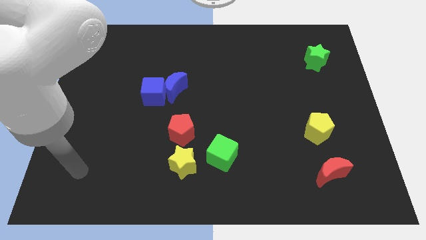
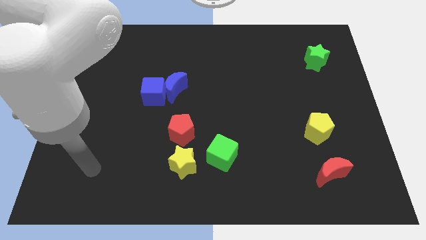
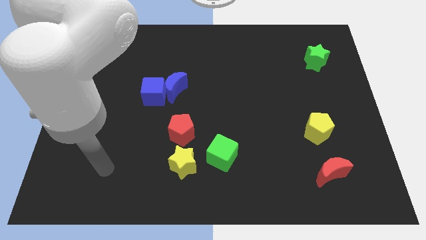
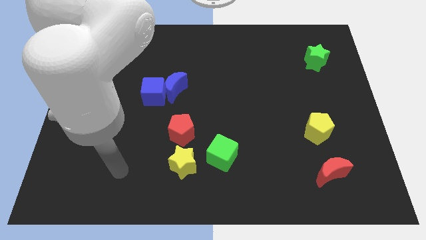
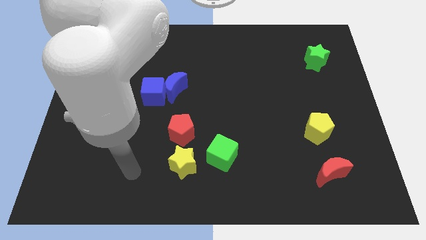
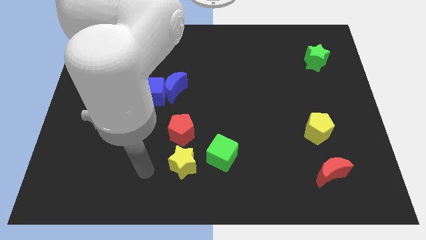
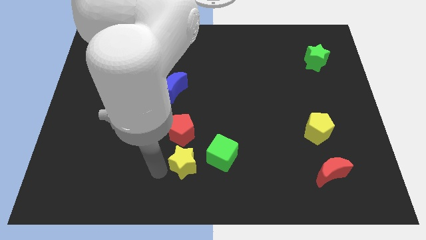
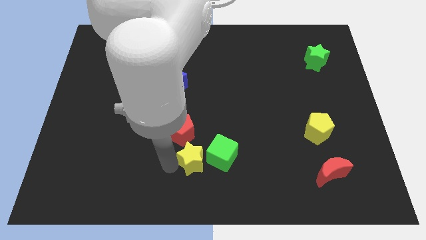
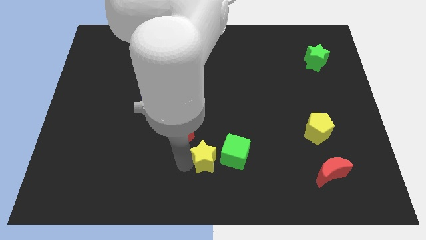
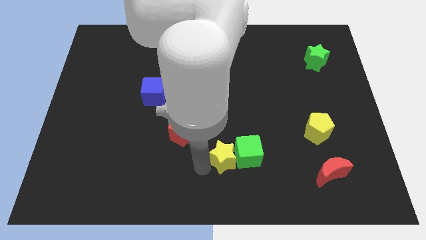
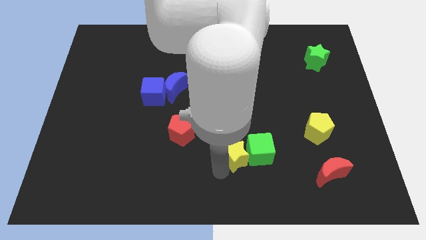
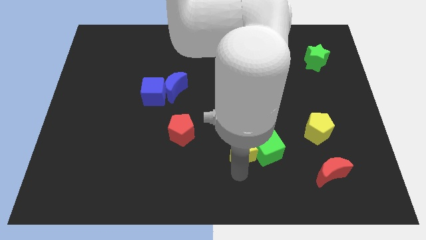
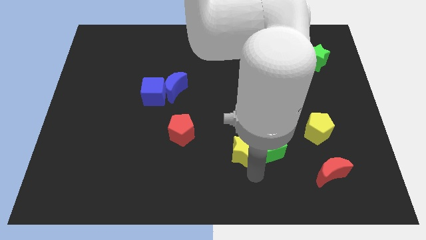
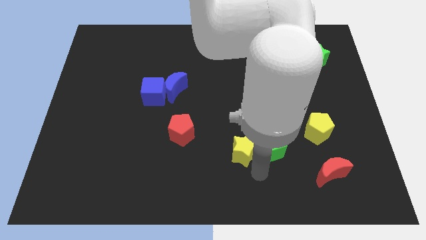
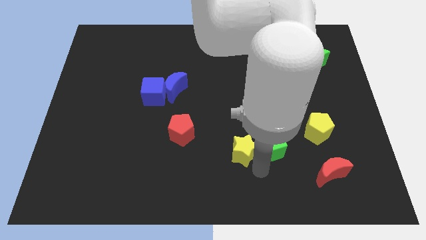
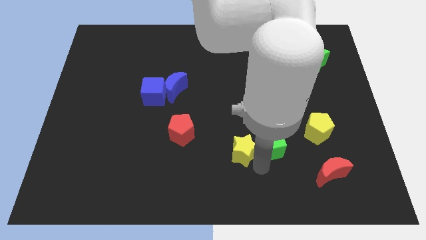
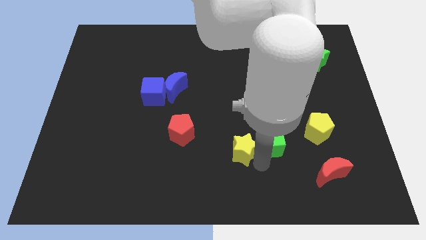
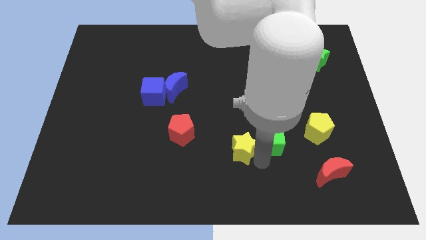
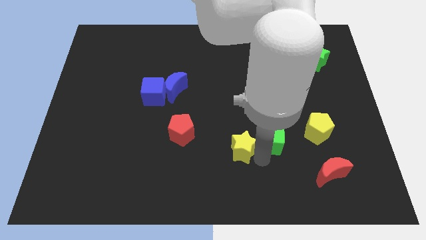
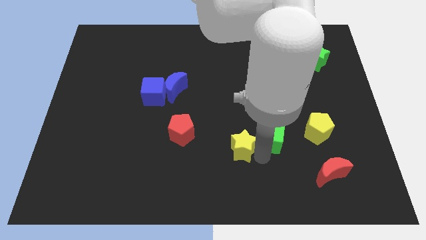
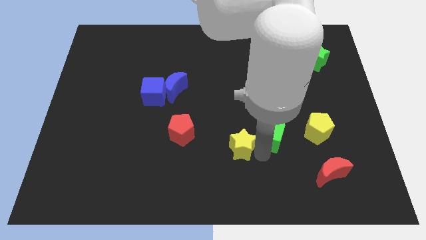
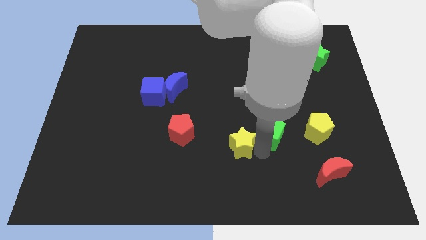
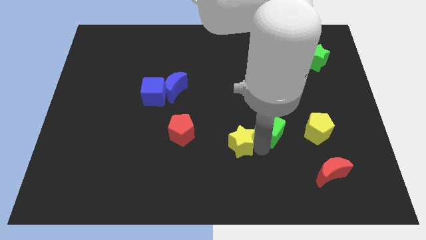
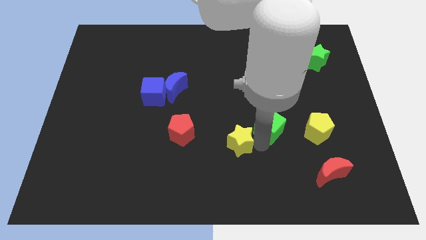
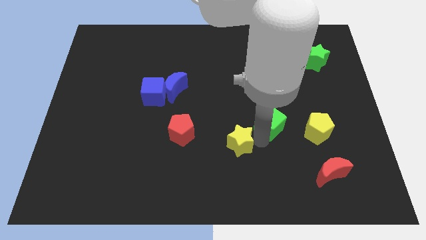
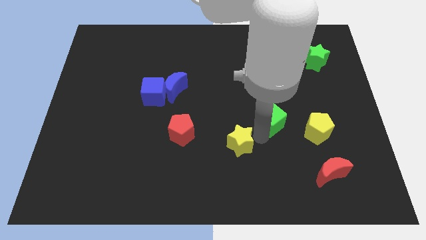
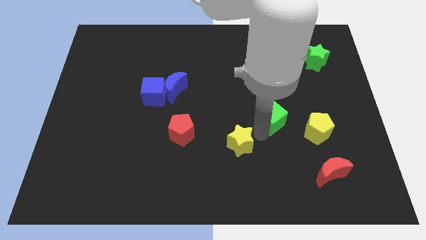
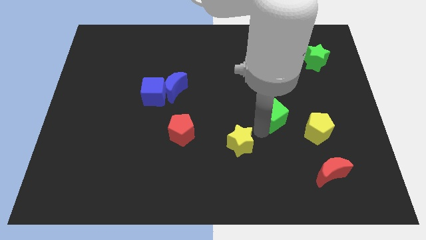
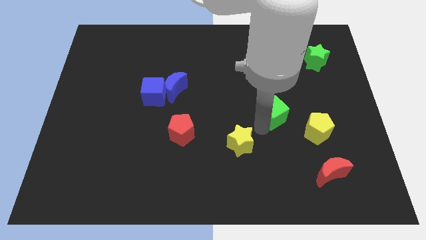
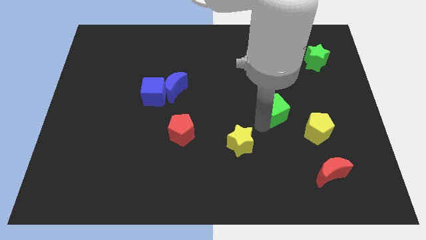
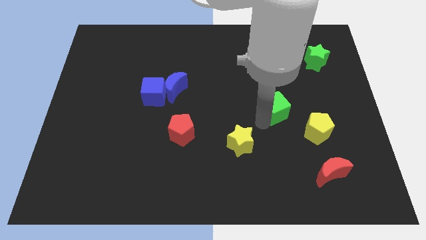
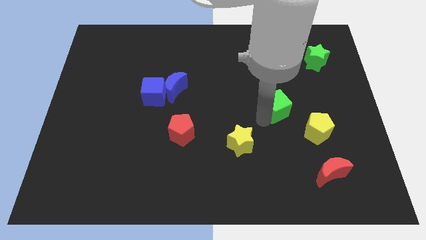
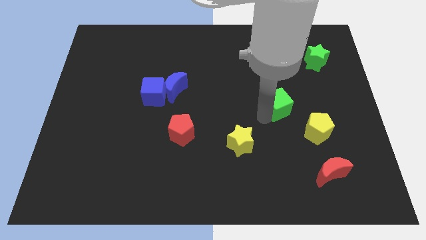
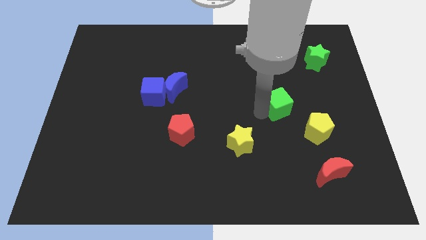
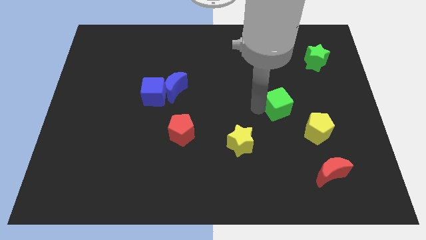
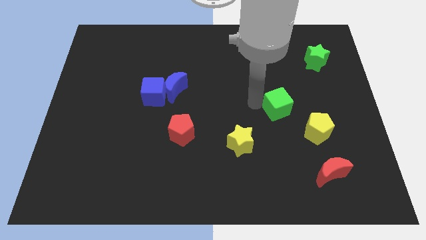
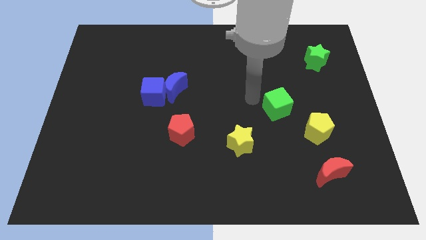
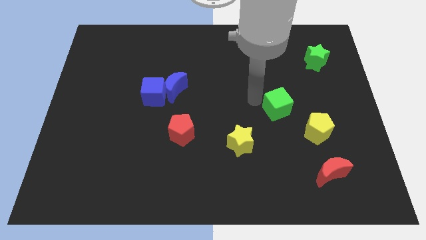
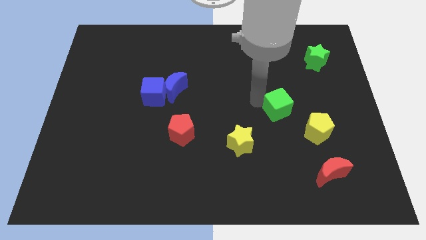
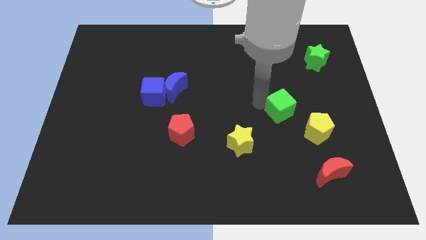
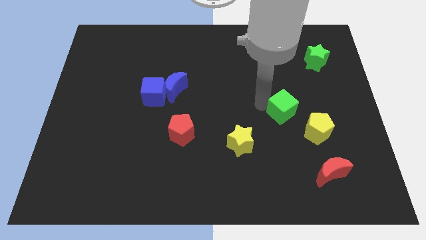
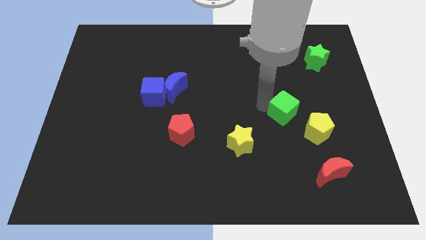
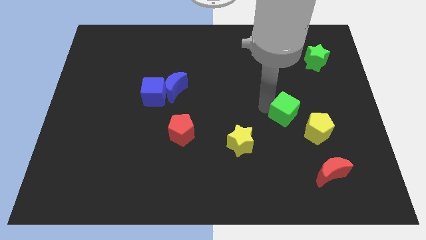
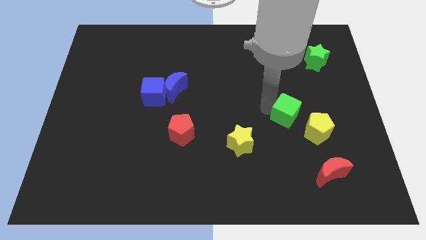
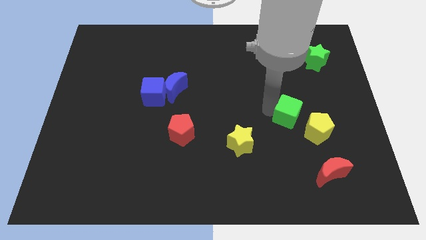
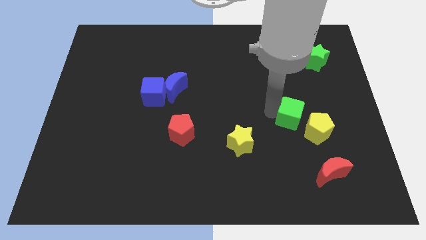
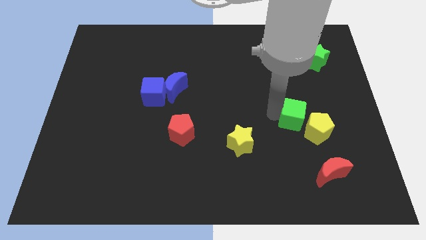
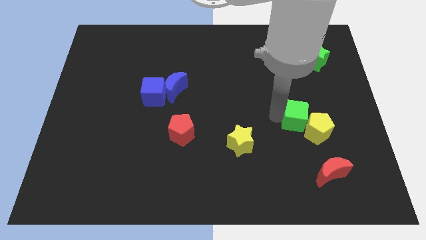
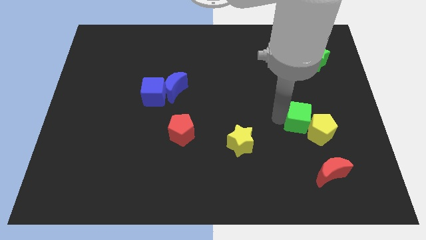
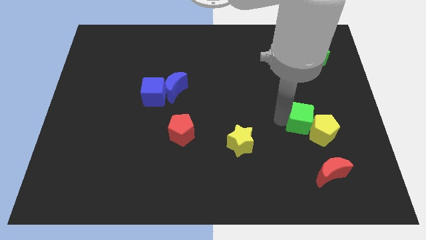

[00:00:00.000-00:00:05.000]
slide the green cube to the top of the red moon

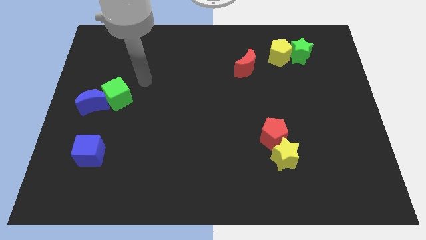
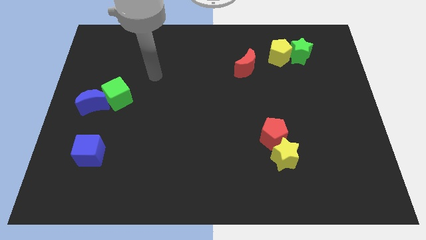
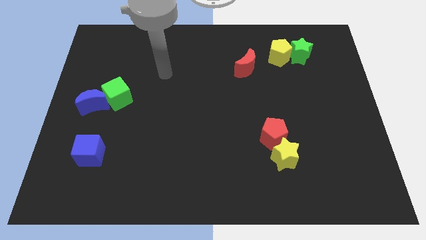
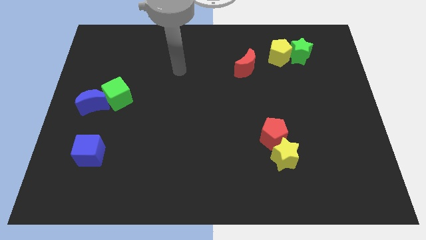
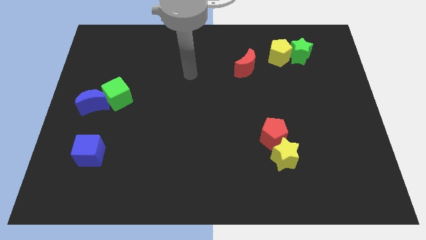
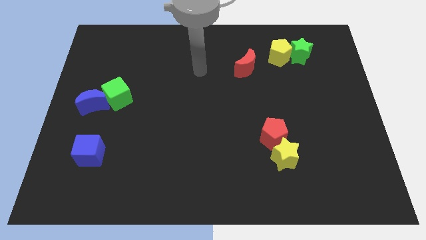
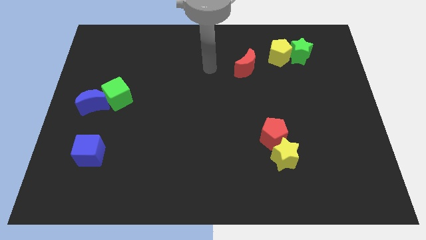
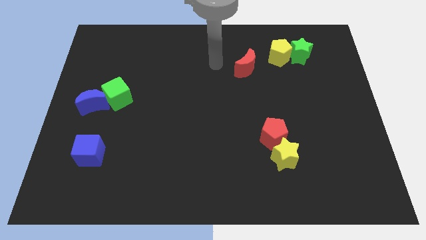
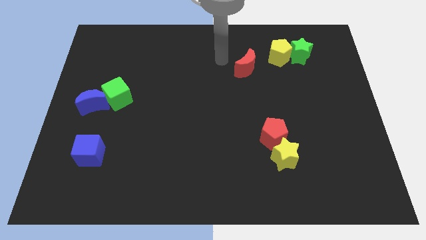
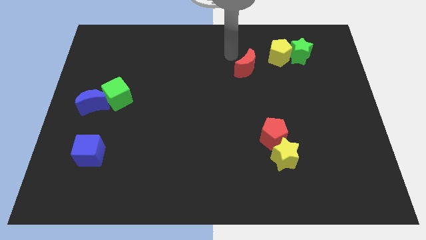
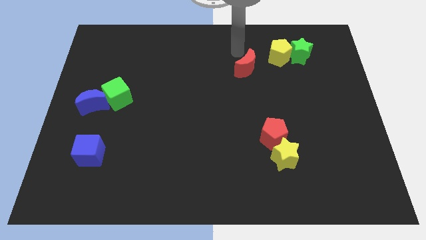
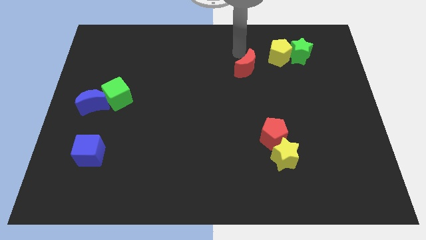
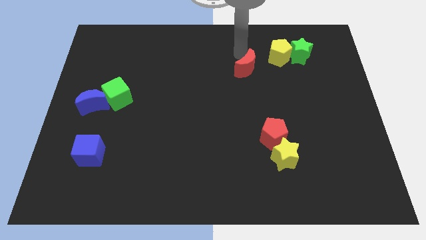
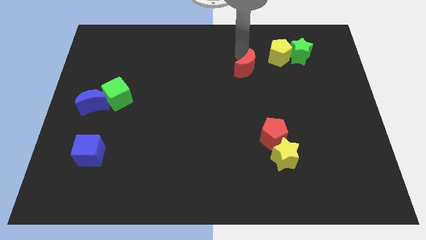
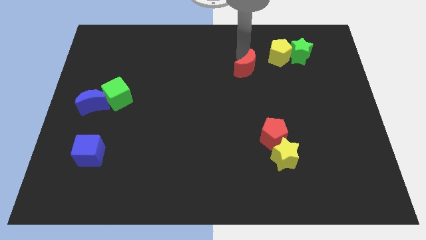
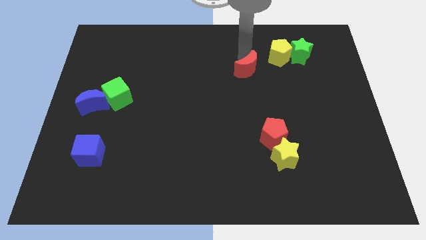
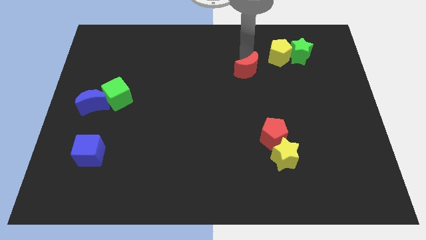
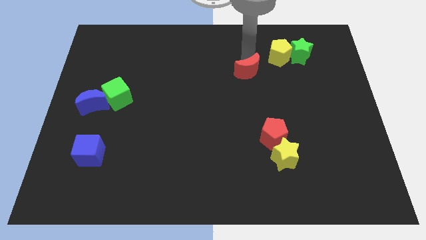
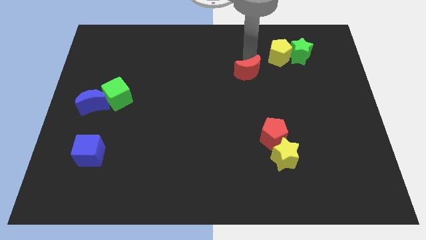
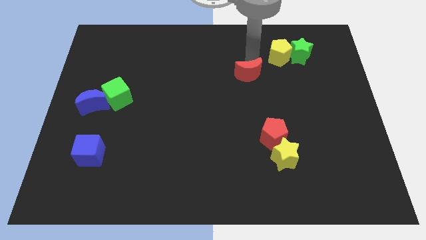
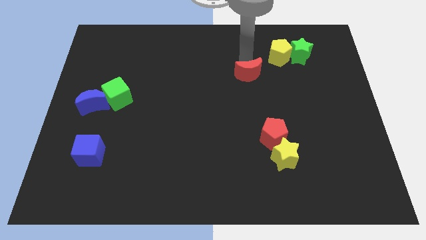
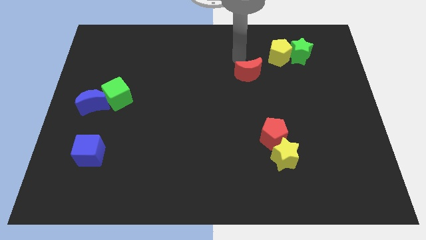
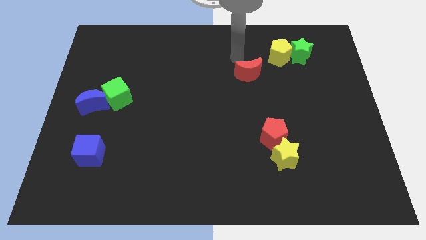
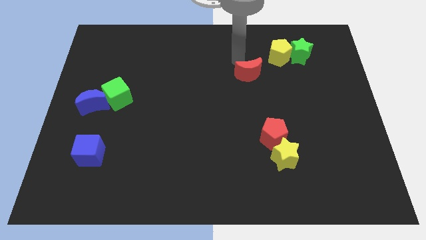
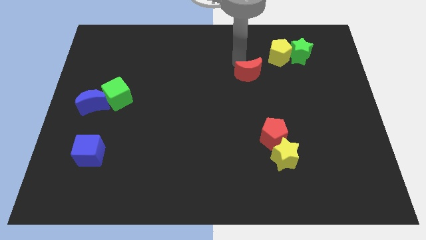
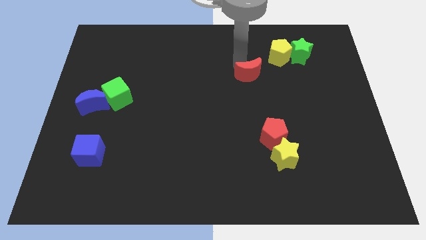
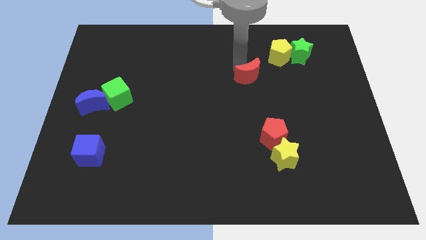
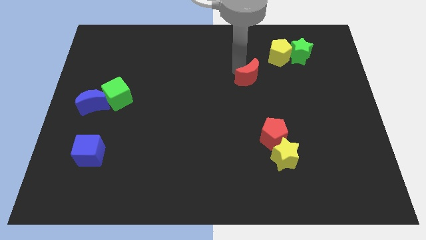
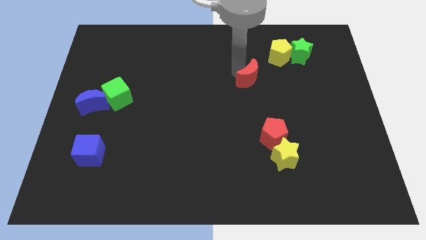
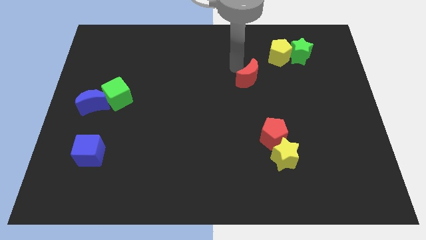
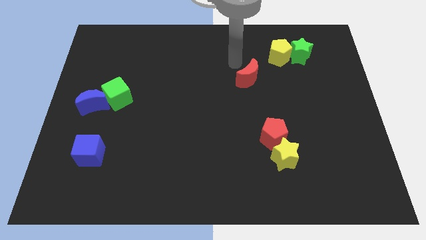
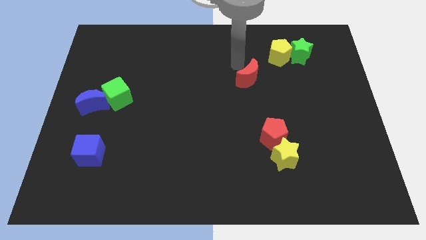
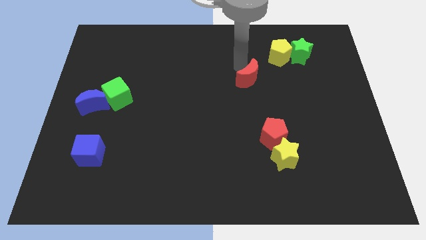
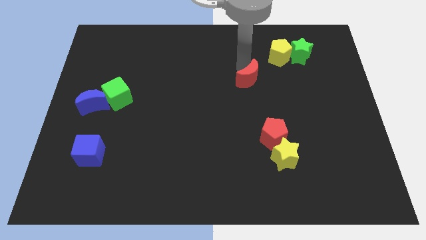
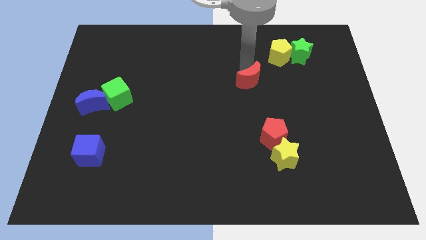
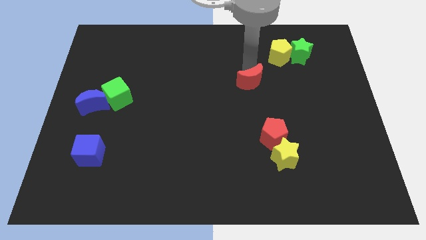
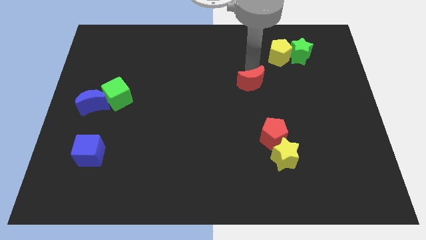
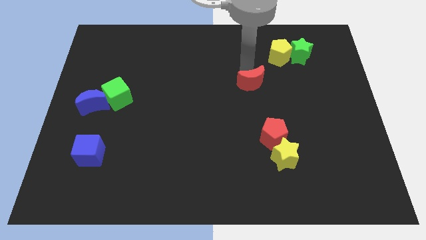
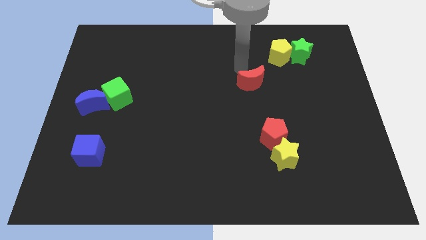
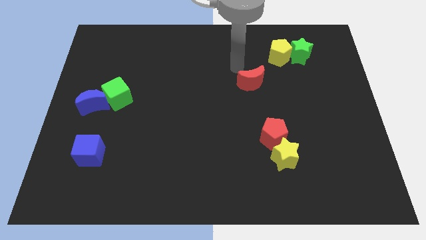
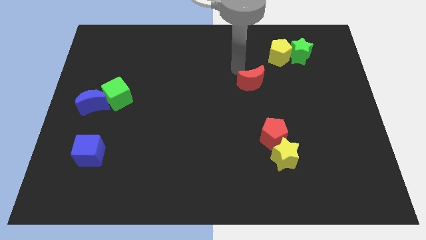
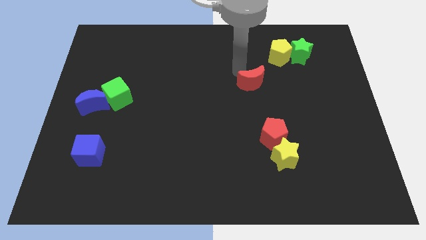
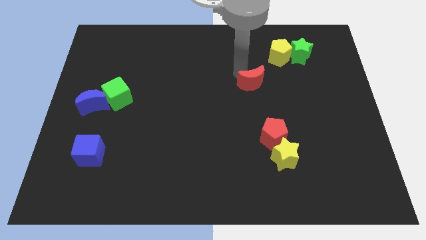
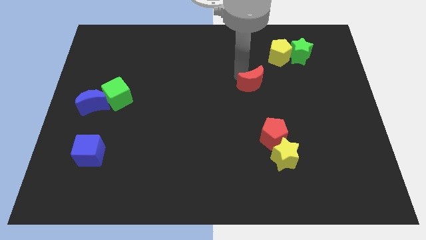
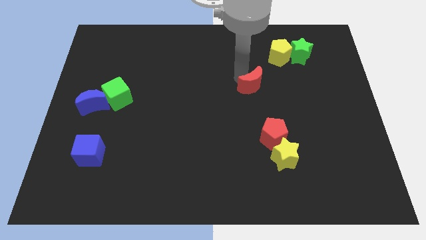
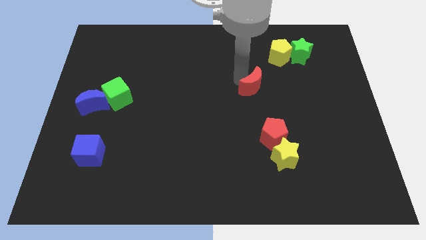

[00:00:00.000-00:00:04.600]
move the red moon to the top of the red pentagon
